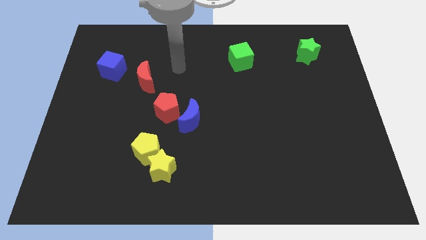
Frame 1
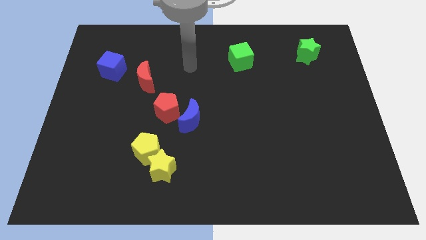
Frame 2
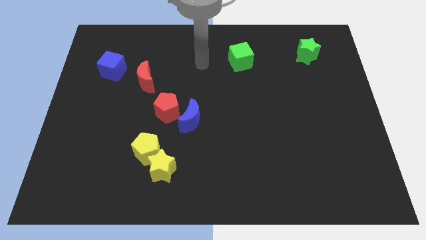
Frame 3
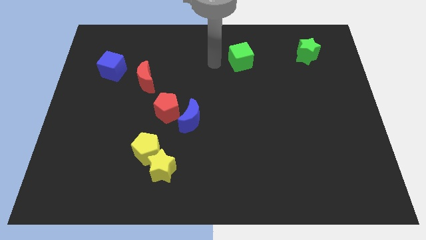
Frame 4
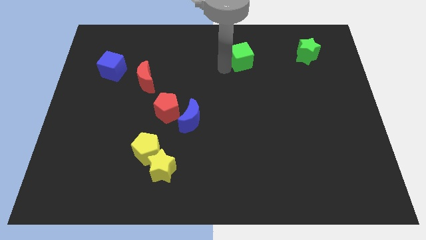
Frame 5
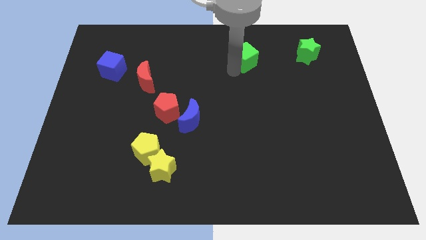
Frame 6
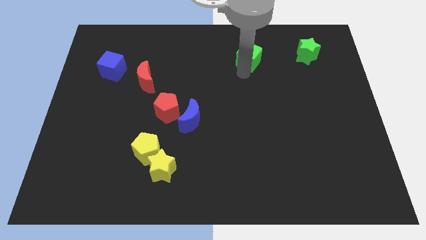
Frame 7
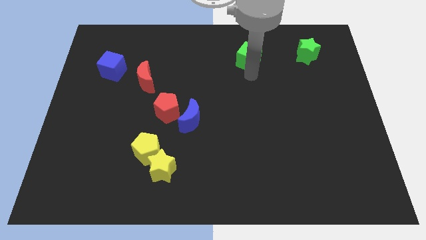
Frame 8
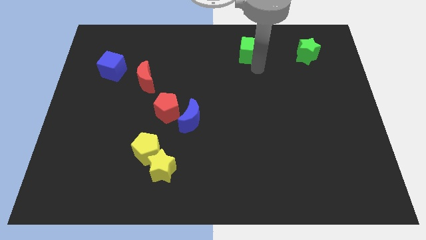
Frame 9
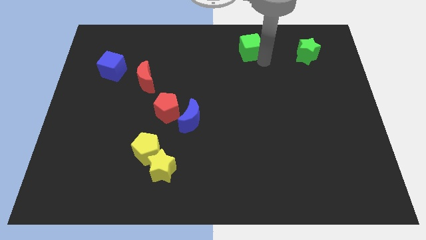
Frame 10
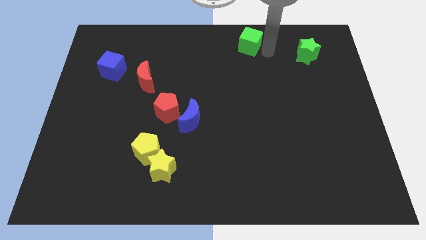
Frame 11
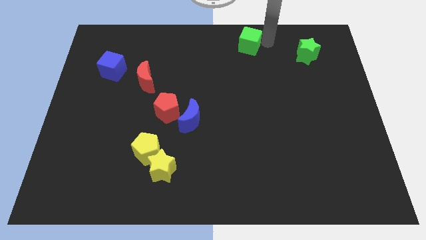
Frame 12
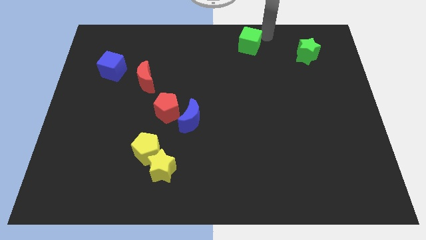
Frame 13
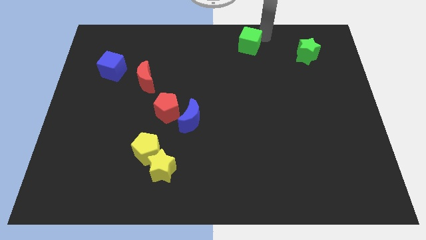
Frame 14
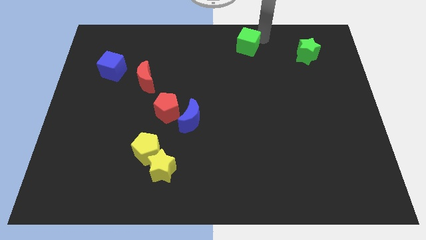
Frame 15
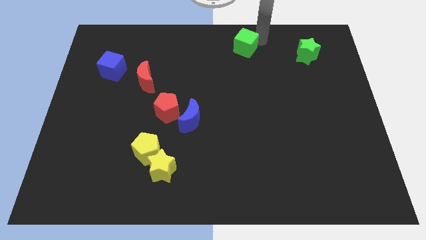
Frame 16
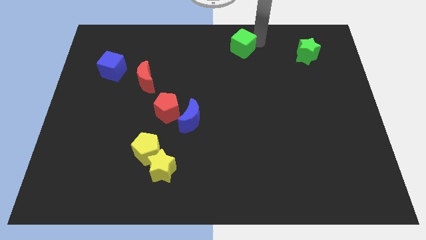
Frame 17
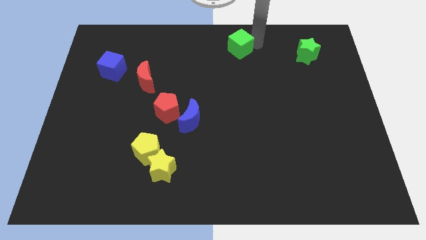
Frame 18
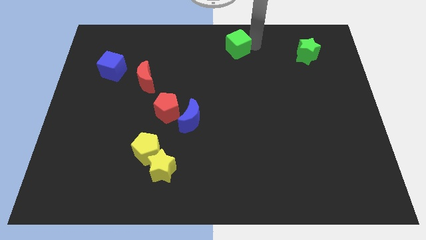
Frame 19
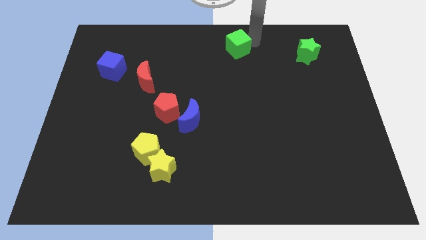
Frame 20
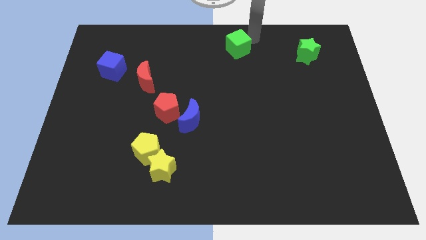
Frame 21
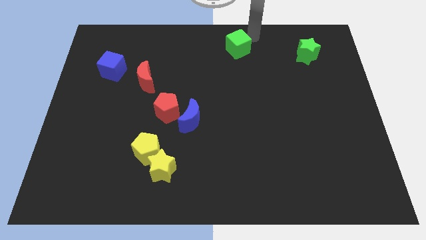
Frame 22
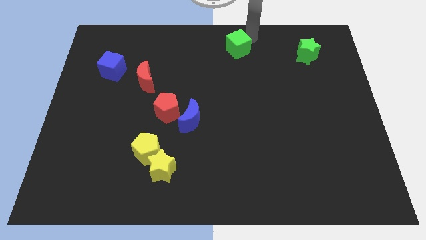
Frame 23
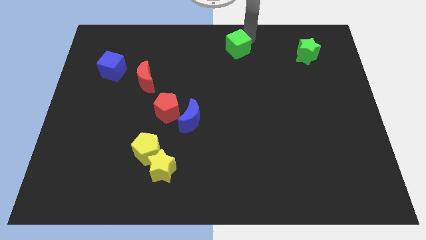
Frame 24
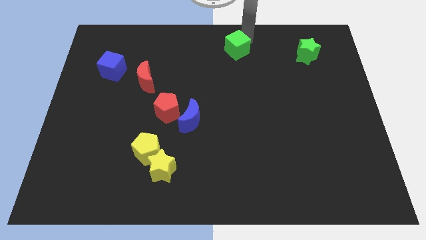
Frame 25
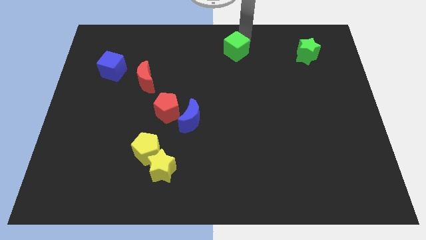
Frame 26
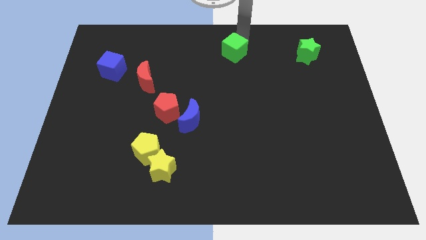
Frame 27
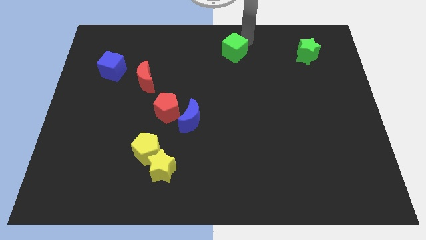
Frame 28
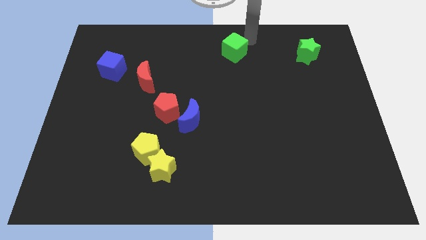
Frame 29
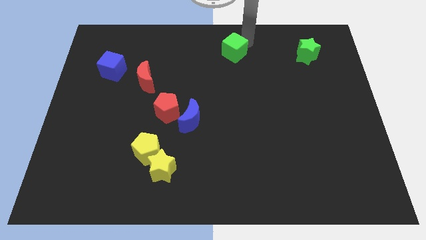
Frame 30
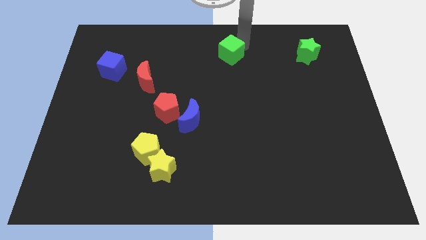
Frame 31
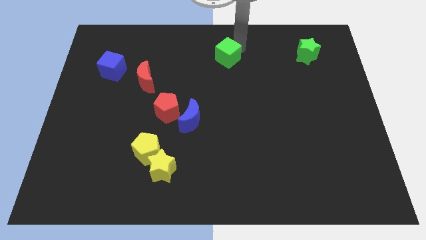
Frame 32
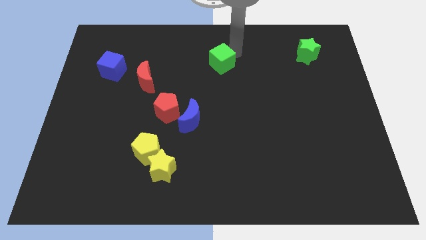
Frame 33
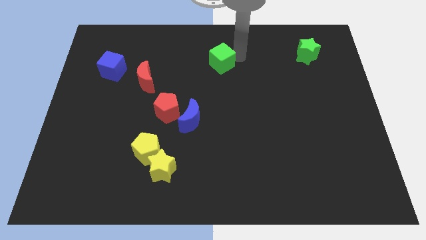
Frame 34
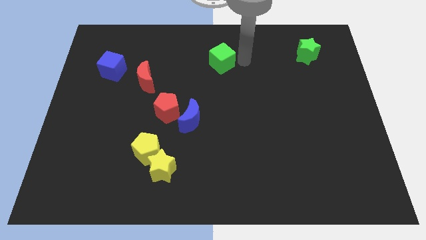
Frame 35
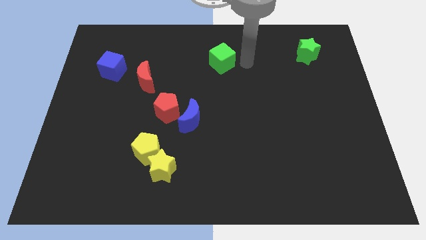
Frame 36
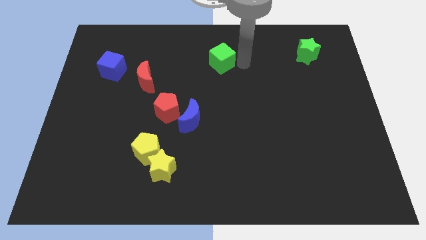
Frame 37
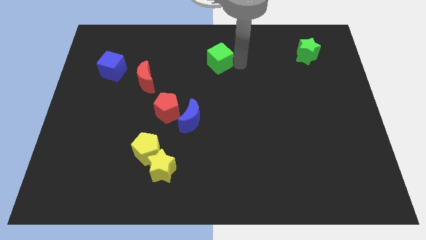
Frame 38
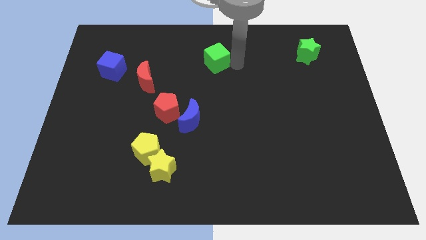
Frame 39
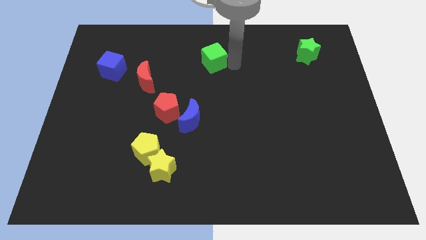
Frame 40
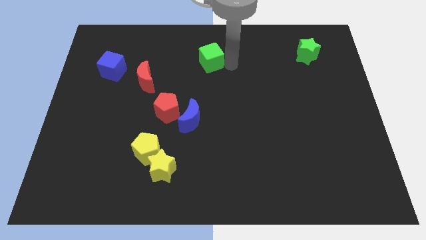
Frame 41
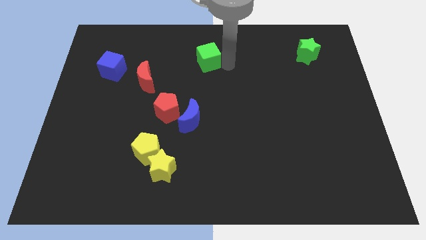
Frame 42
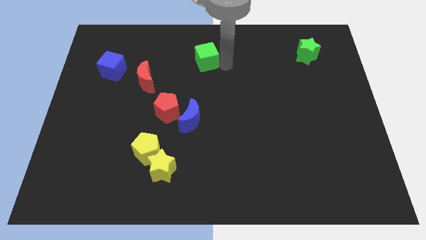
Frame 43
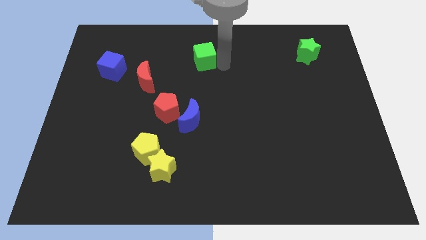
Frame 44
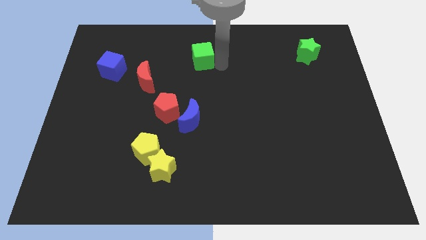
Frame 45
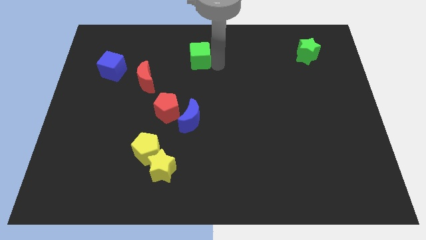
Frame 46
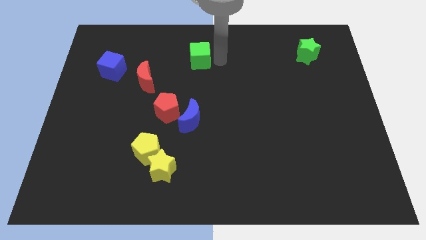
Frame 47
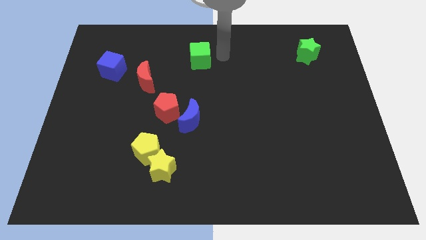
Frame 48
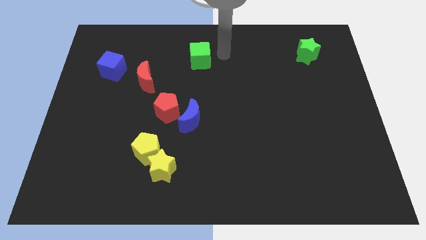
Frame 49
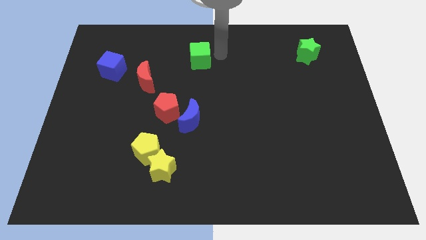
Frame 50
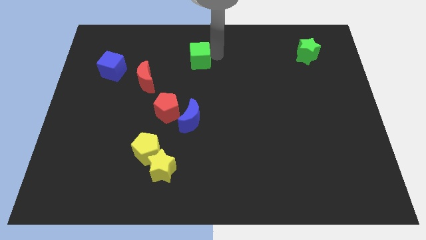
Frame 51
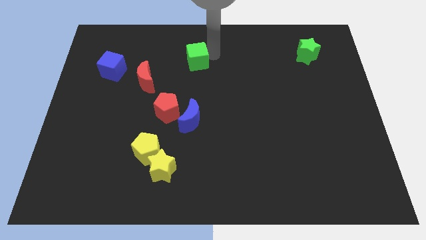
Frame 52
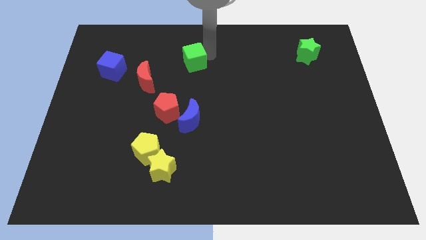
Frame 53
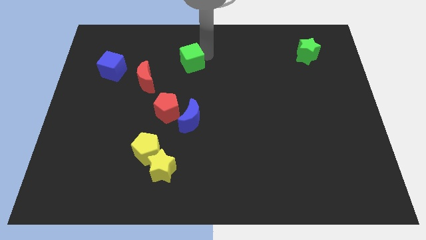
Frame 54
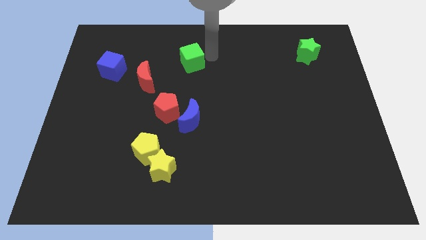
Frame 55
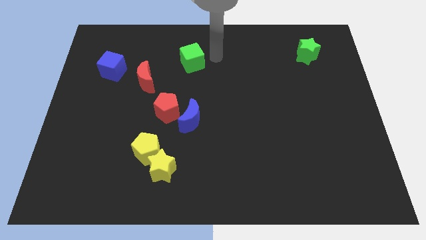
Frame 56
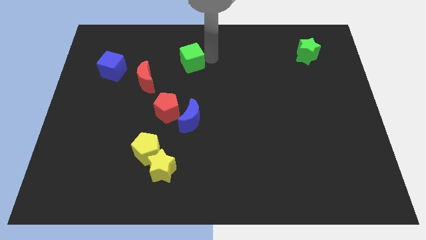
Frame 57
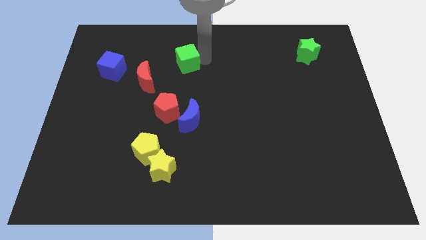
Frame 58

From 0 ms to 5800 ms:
slide the green cube to the top right side of the red moon
